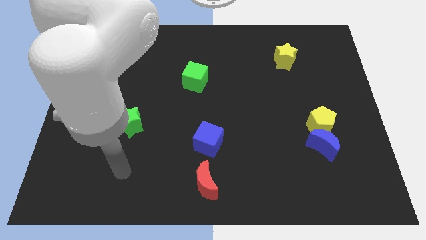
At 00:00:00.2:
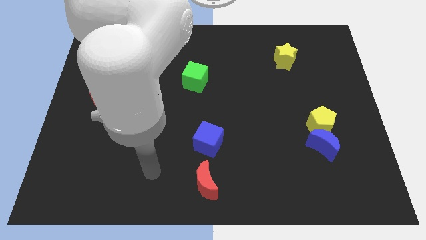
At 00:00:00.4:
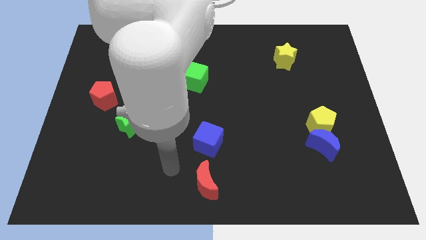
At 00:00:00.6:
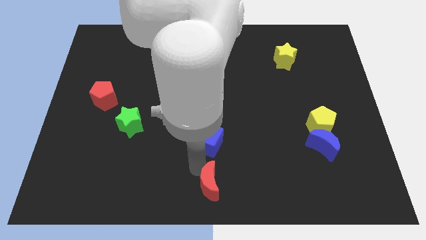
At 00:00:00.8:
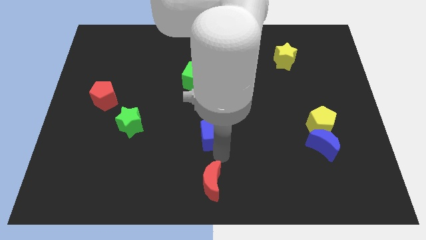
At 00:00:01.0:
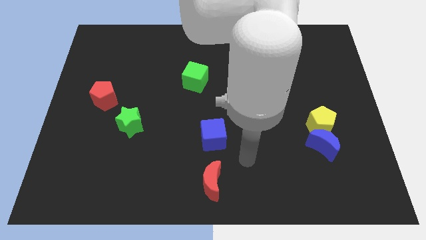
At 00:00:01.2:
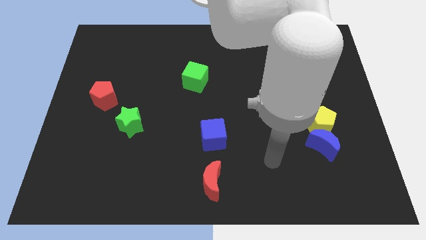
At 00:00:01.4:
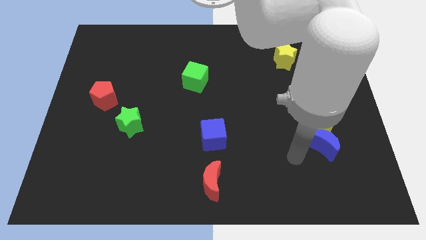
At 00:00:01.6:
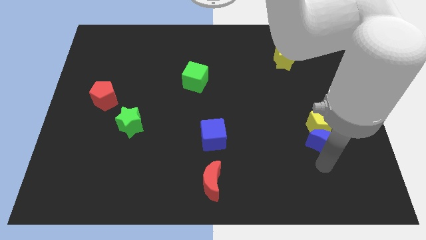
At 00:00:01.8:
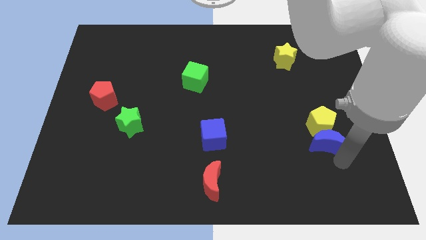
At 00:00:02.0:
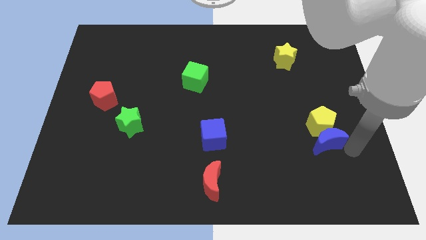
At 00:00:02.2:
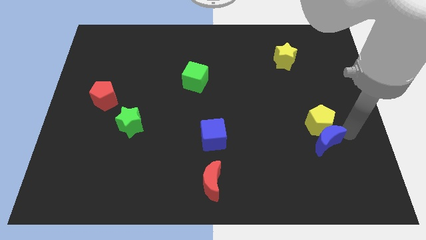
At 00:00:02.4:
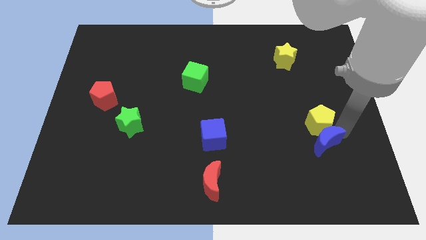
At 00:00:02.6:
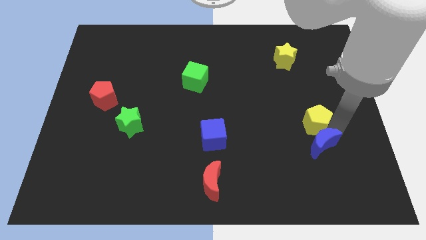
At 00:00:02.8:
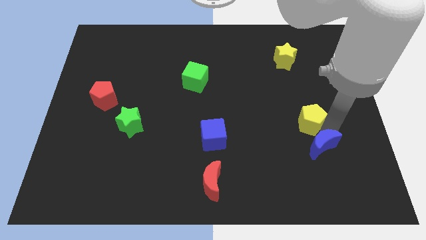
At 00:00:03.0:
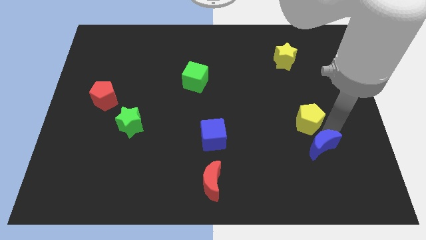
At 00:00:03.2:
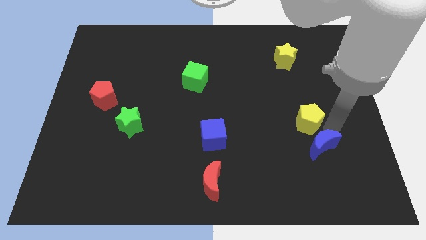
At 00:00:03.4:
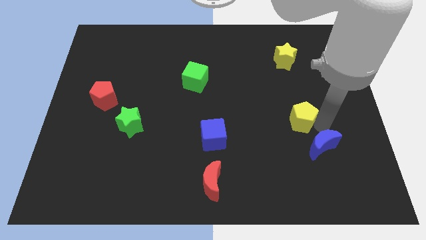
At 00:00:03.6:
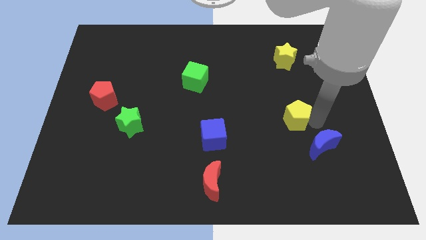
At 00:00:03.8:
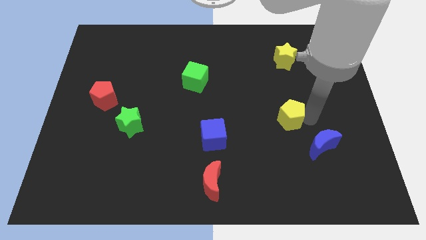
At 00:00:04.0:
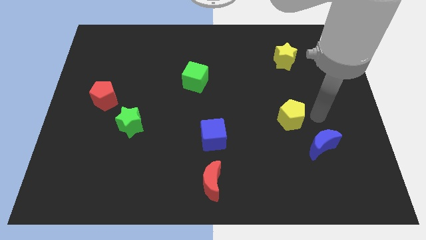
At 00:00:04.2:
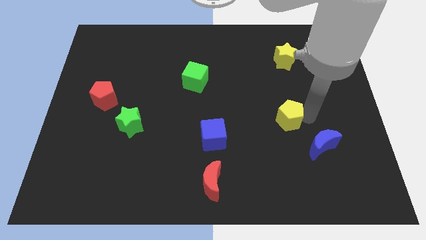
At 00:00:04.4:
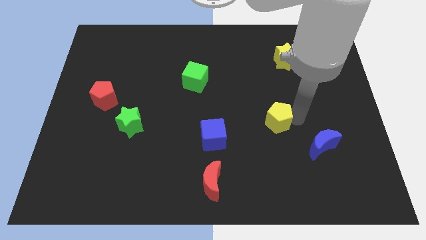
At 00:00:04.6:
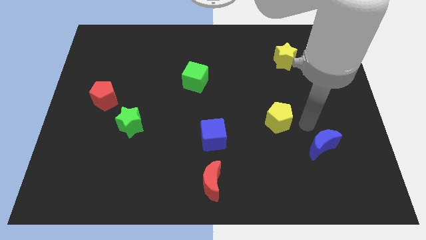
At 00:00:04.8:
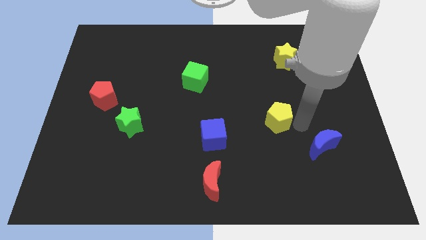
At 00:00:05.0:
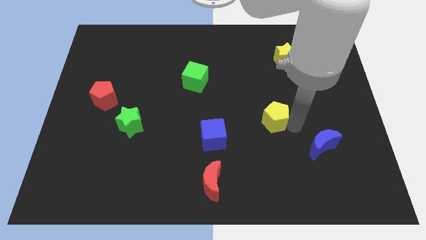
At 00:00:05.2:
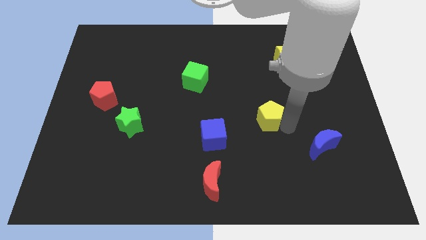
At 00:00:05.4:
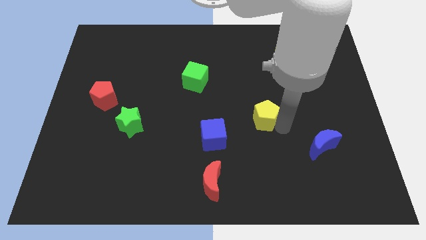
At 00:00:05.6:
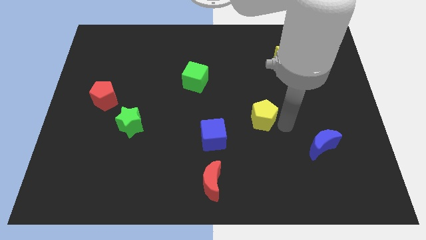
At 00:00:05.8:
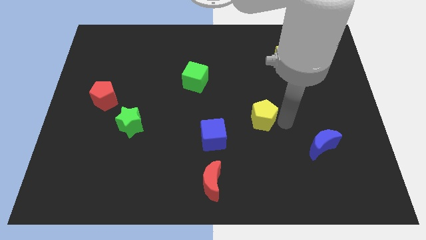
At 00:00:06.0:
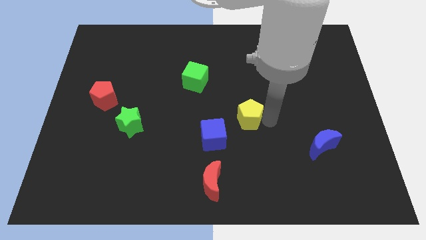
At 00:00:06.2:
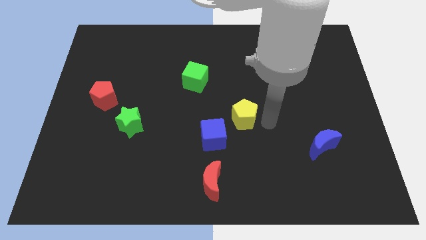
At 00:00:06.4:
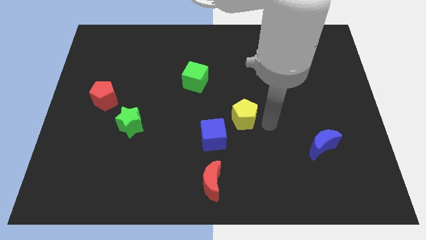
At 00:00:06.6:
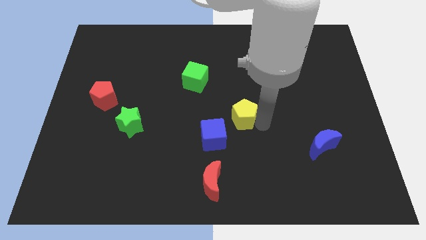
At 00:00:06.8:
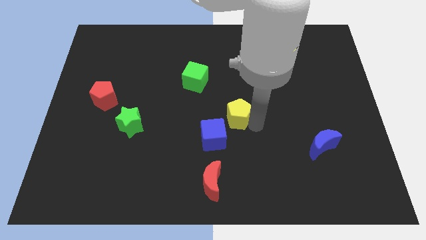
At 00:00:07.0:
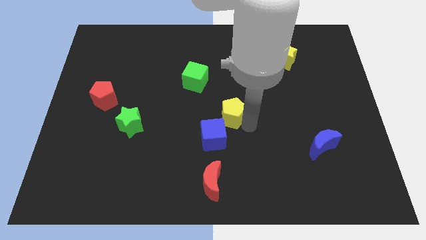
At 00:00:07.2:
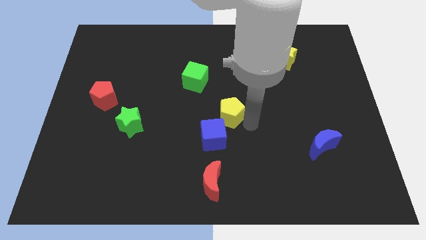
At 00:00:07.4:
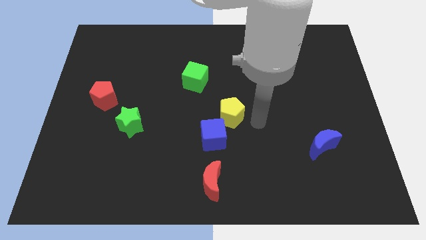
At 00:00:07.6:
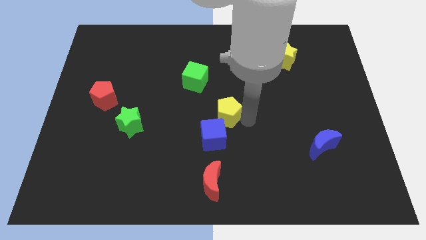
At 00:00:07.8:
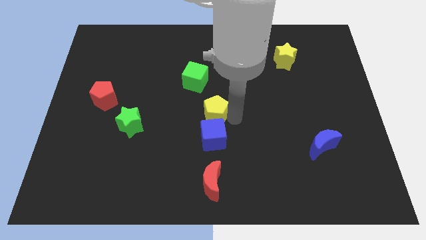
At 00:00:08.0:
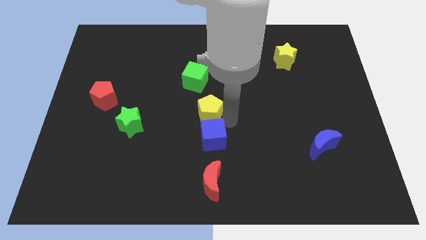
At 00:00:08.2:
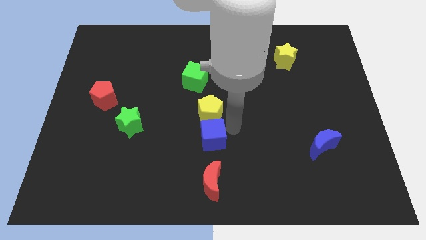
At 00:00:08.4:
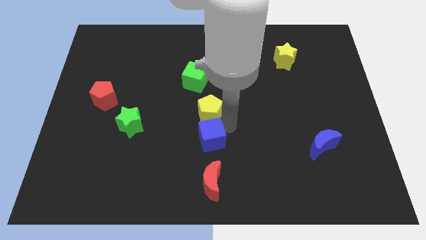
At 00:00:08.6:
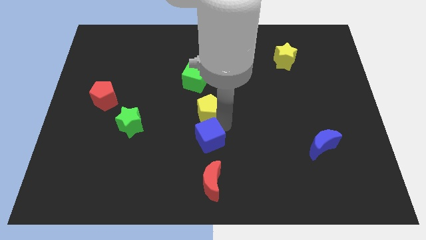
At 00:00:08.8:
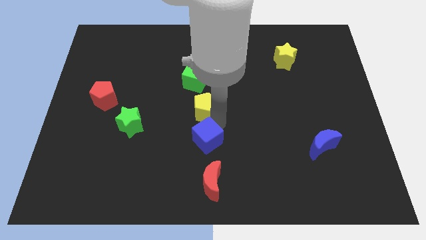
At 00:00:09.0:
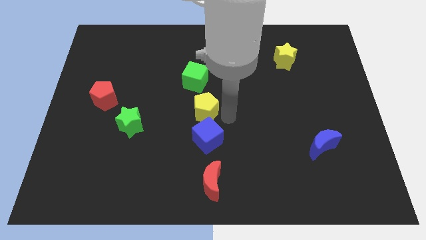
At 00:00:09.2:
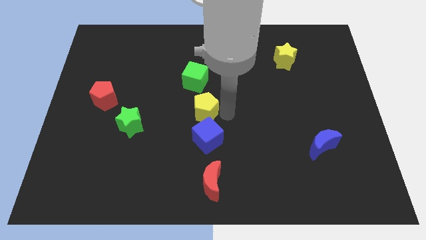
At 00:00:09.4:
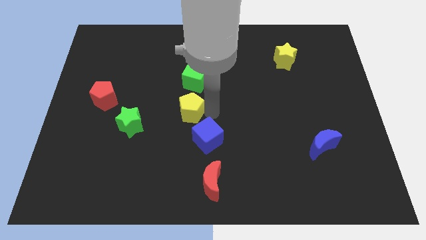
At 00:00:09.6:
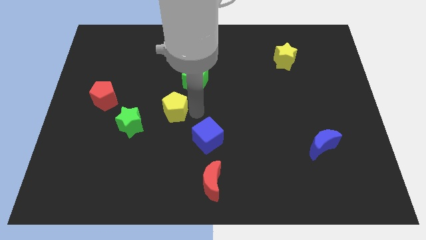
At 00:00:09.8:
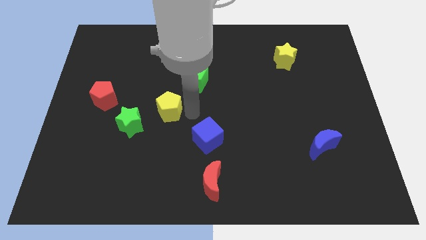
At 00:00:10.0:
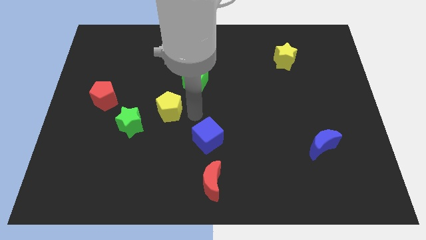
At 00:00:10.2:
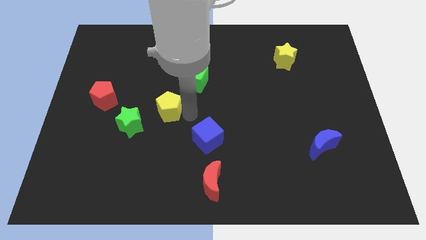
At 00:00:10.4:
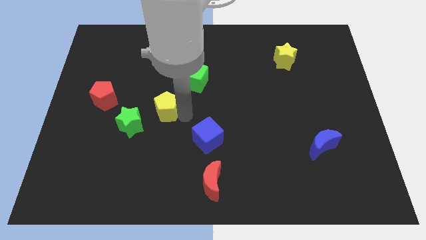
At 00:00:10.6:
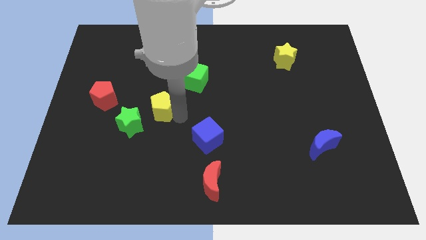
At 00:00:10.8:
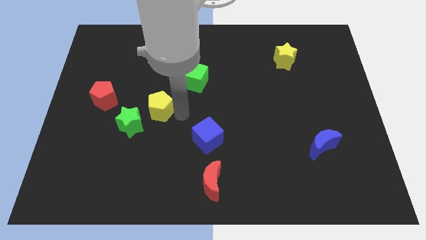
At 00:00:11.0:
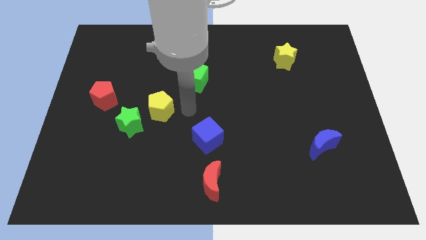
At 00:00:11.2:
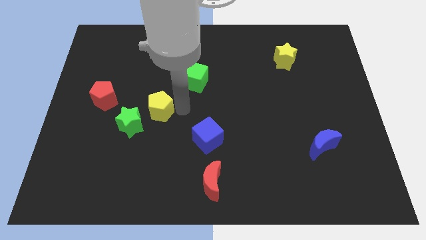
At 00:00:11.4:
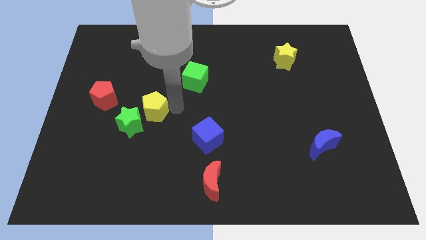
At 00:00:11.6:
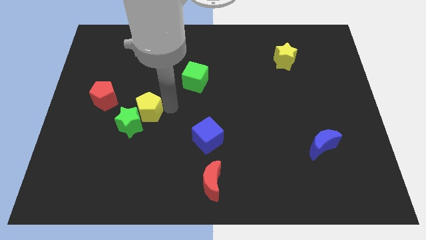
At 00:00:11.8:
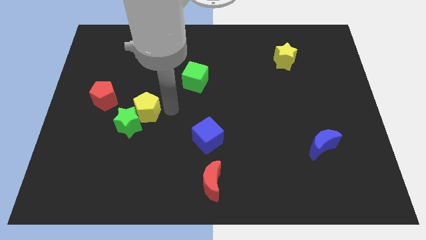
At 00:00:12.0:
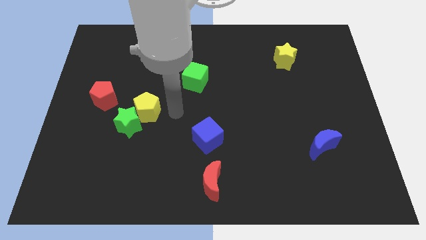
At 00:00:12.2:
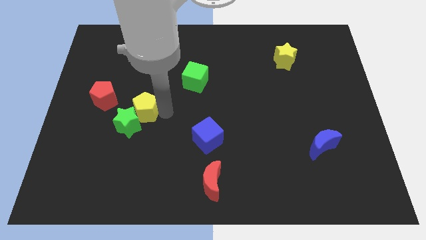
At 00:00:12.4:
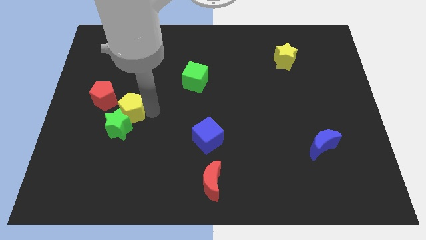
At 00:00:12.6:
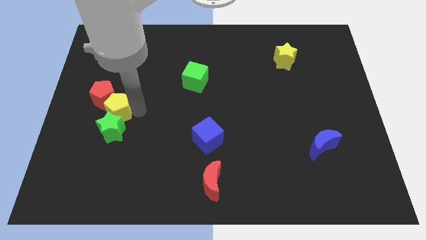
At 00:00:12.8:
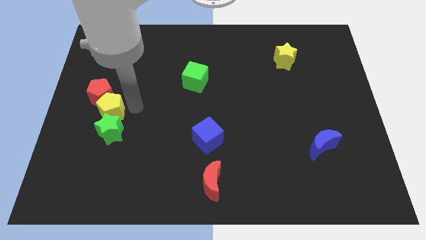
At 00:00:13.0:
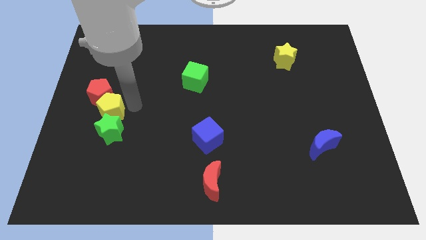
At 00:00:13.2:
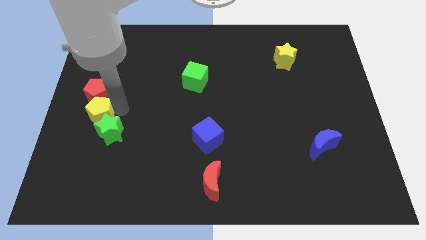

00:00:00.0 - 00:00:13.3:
slide the yellow pentagon to the left side

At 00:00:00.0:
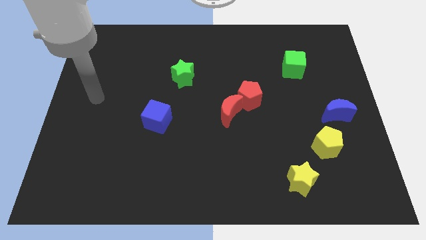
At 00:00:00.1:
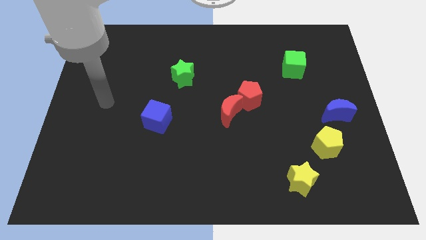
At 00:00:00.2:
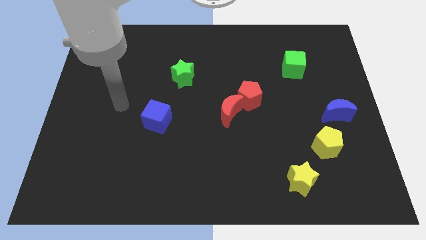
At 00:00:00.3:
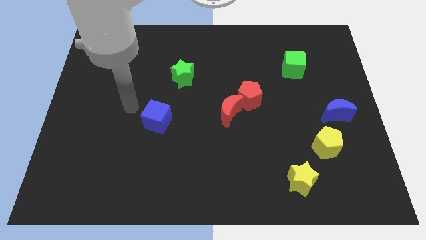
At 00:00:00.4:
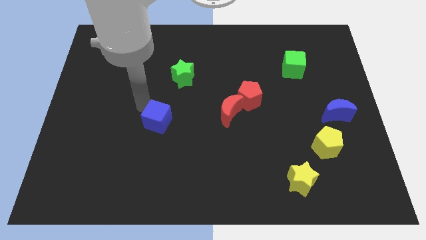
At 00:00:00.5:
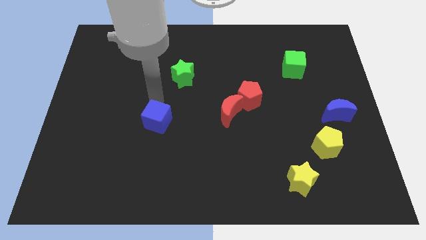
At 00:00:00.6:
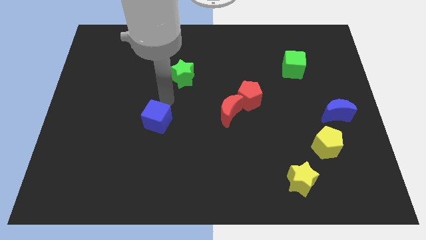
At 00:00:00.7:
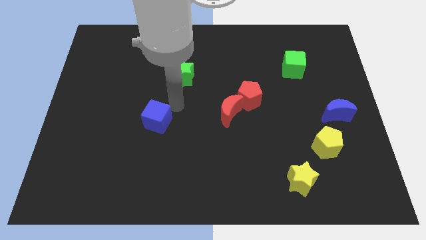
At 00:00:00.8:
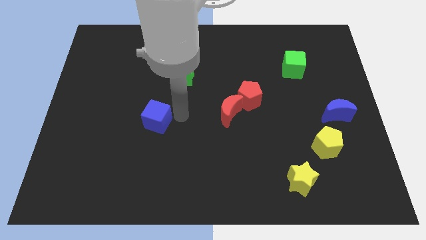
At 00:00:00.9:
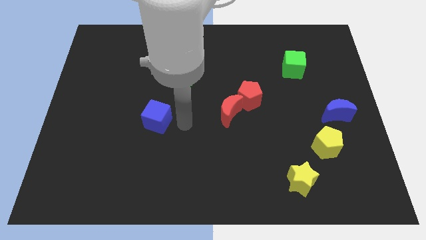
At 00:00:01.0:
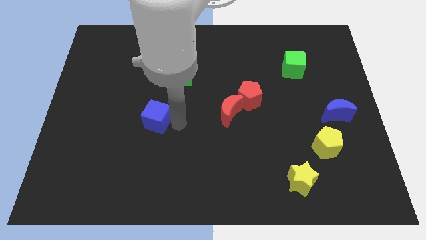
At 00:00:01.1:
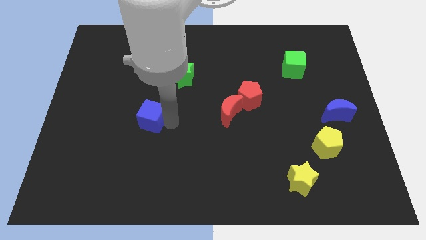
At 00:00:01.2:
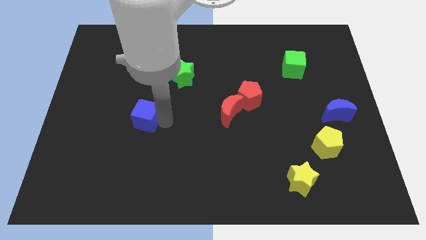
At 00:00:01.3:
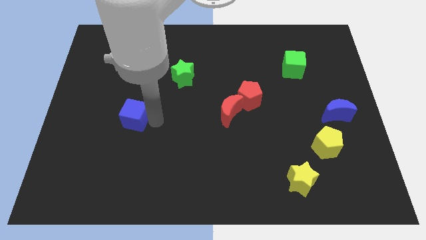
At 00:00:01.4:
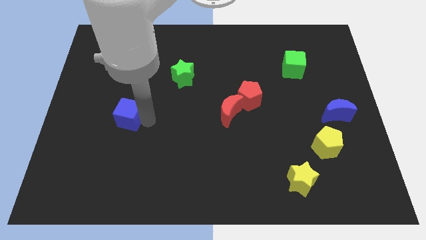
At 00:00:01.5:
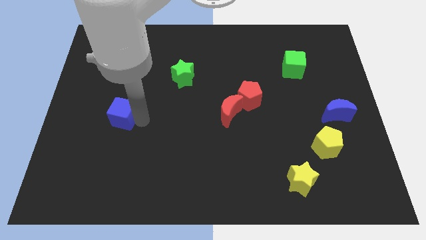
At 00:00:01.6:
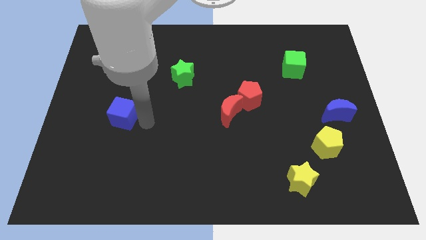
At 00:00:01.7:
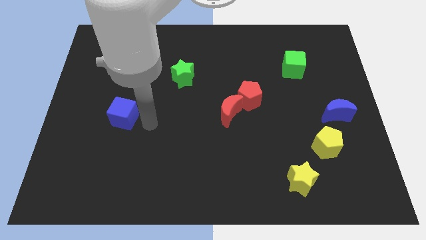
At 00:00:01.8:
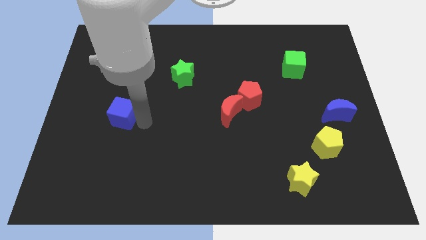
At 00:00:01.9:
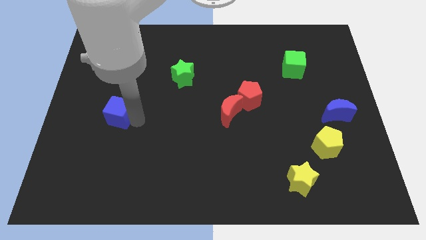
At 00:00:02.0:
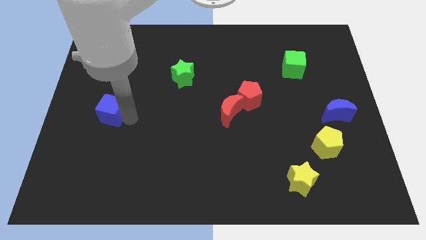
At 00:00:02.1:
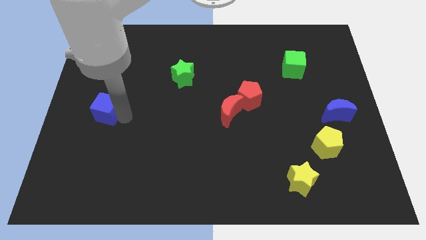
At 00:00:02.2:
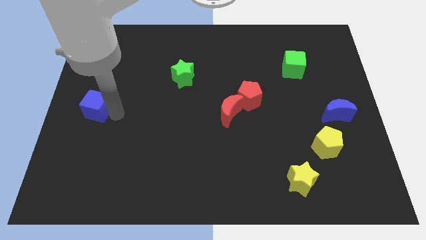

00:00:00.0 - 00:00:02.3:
slide the blue cube to the left side
